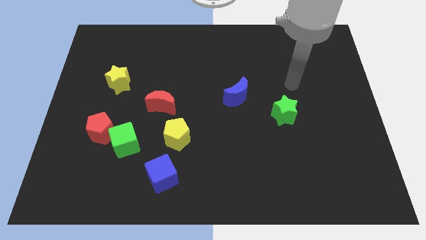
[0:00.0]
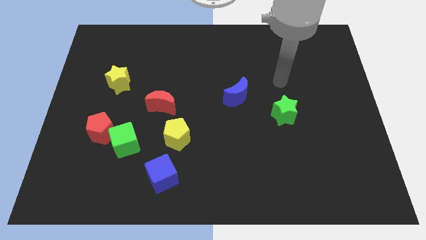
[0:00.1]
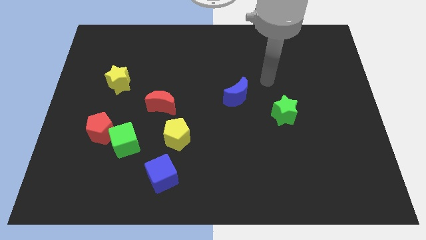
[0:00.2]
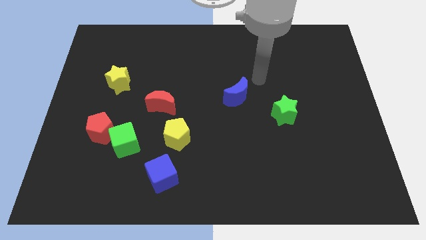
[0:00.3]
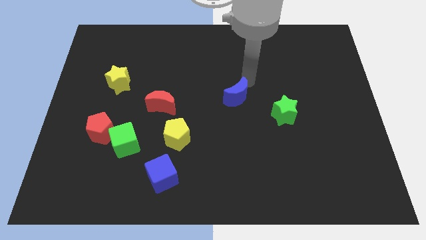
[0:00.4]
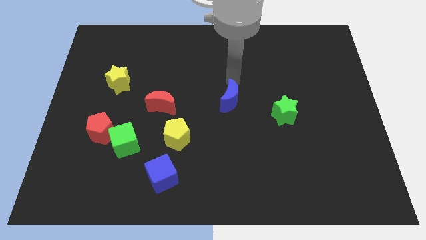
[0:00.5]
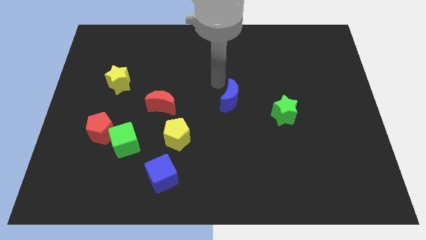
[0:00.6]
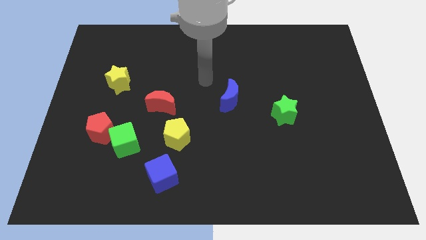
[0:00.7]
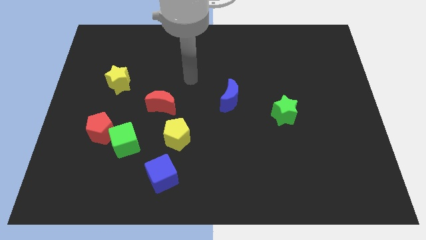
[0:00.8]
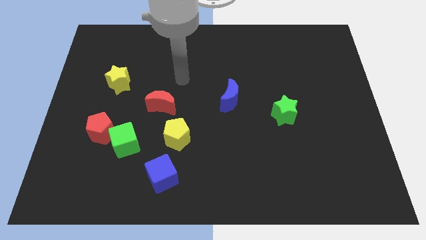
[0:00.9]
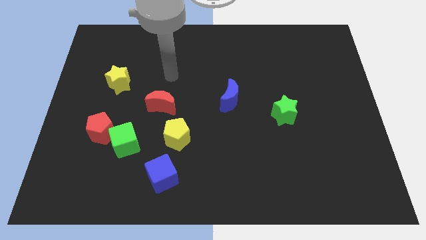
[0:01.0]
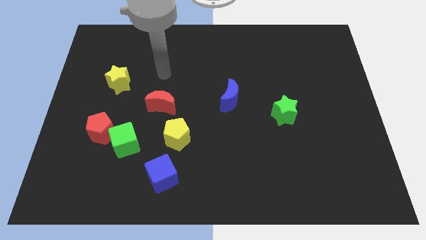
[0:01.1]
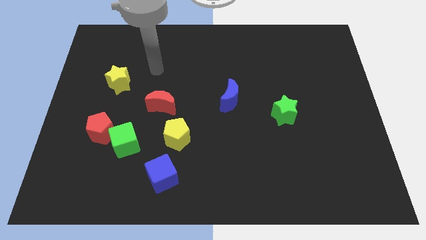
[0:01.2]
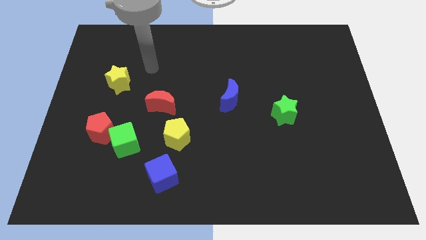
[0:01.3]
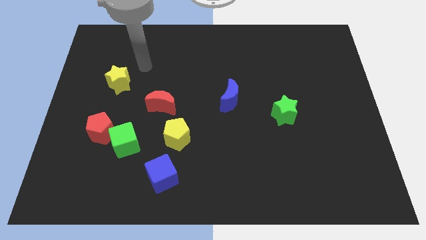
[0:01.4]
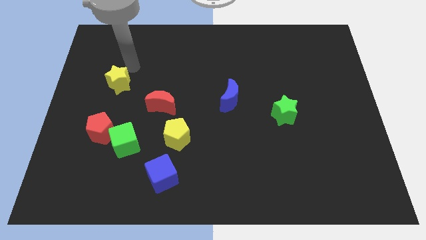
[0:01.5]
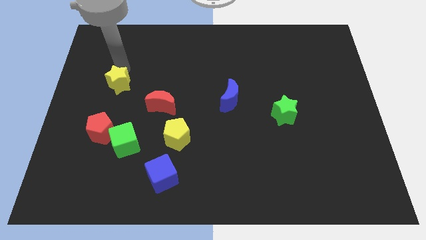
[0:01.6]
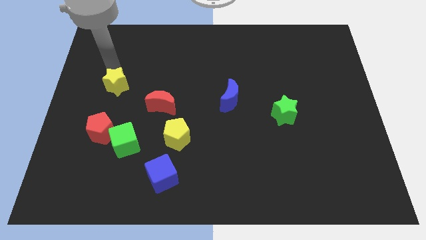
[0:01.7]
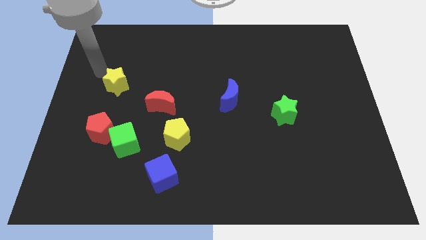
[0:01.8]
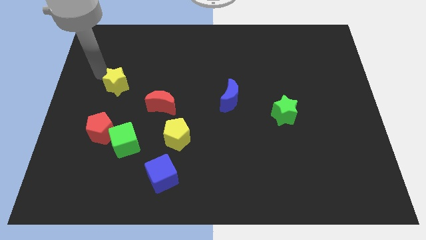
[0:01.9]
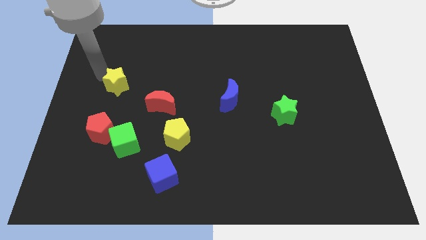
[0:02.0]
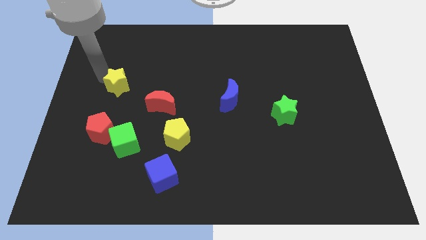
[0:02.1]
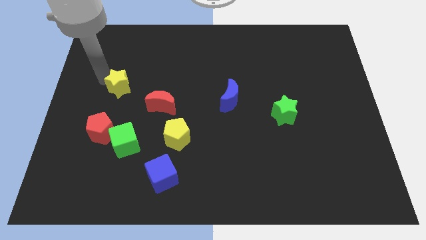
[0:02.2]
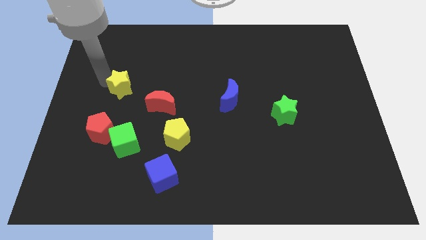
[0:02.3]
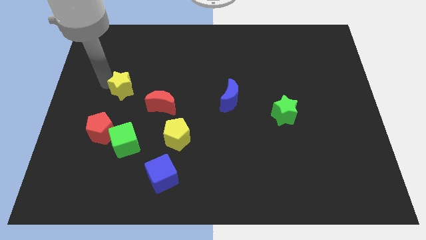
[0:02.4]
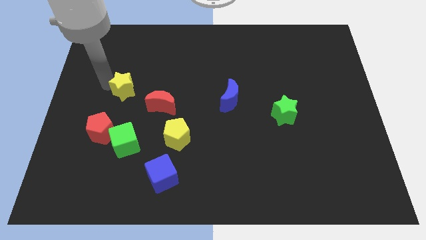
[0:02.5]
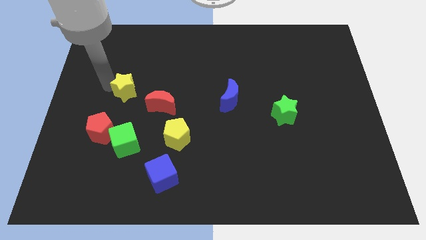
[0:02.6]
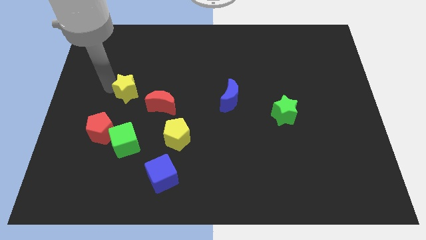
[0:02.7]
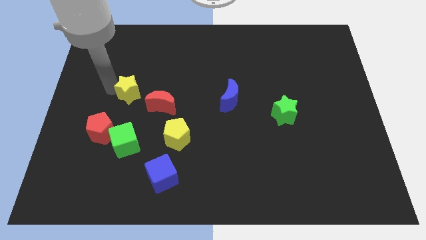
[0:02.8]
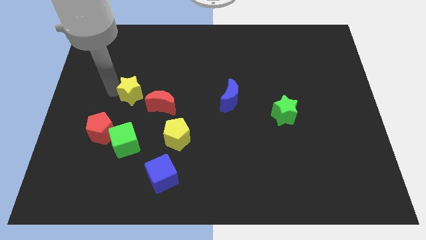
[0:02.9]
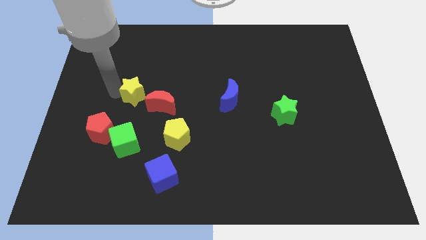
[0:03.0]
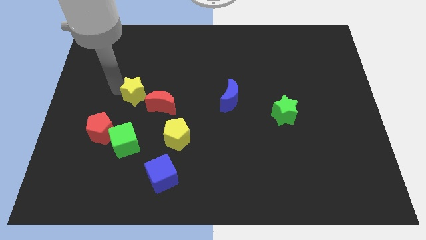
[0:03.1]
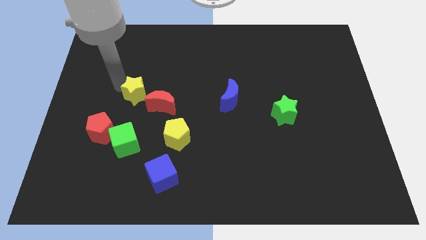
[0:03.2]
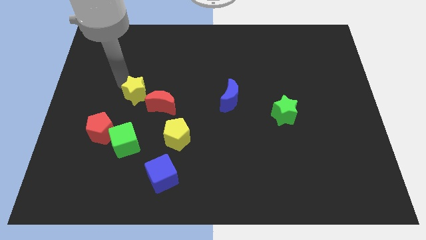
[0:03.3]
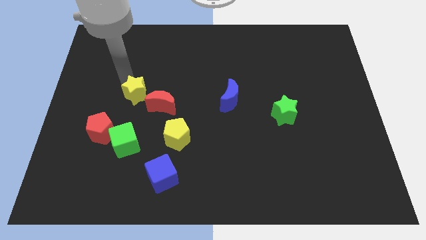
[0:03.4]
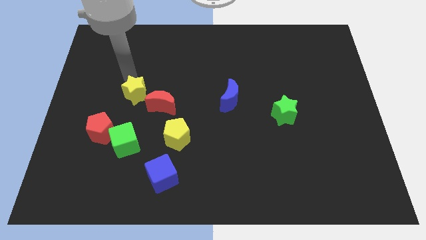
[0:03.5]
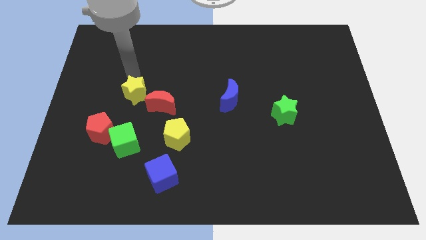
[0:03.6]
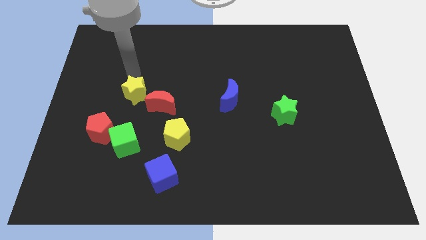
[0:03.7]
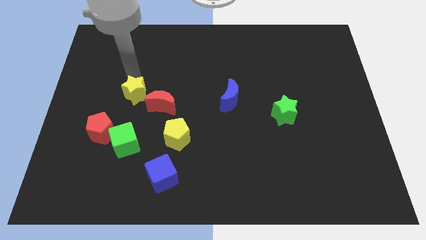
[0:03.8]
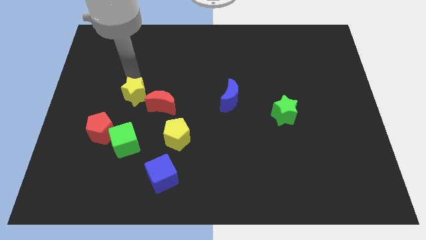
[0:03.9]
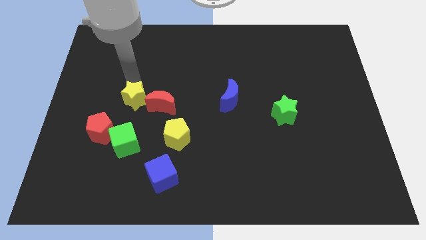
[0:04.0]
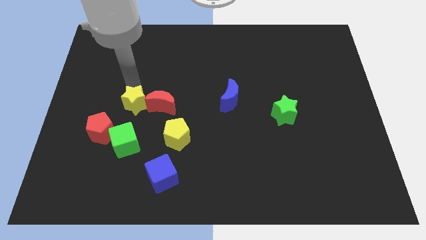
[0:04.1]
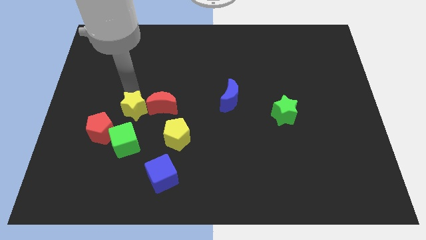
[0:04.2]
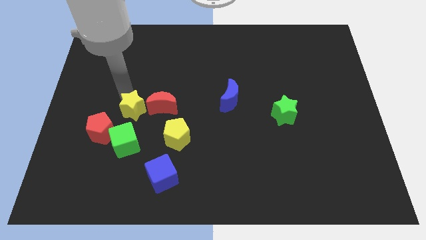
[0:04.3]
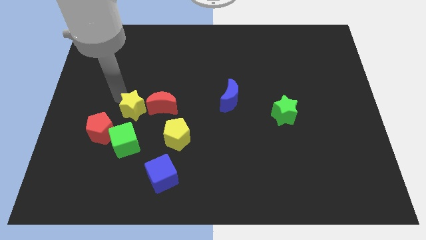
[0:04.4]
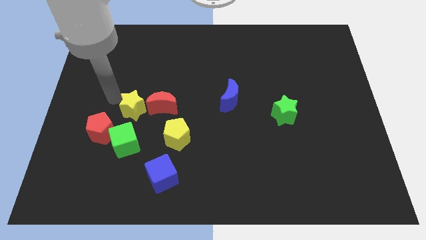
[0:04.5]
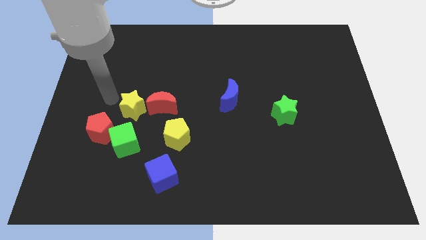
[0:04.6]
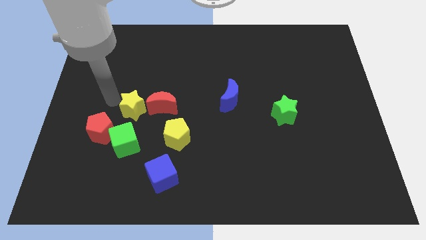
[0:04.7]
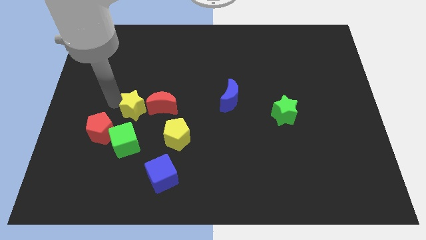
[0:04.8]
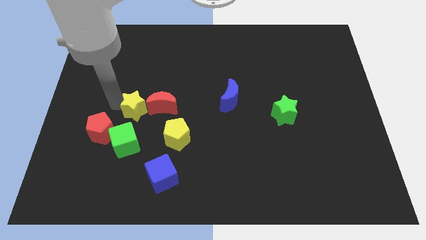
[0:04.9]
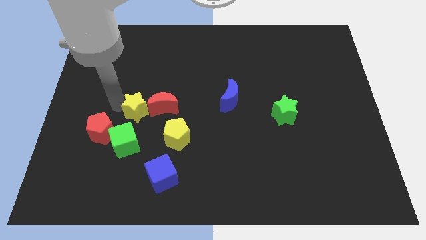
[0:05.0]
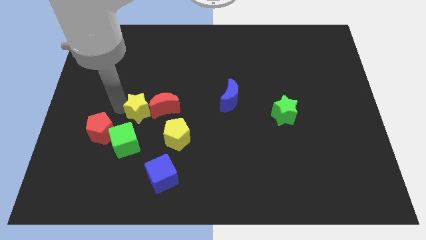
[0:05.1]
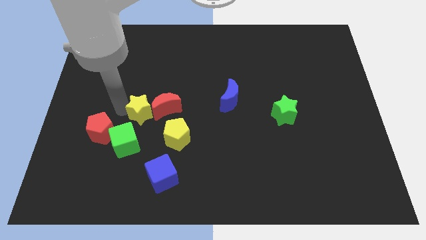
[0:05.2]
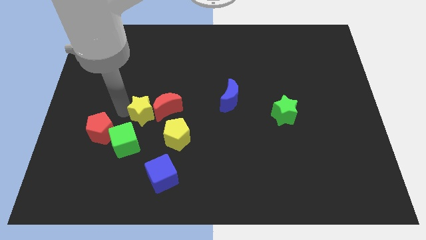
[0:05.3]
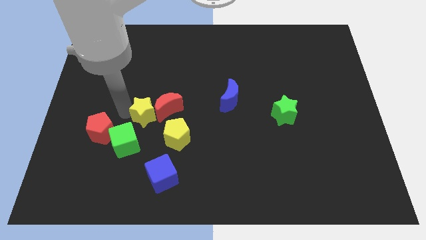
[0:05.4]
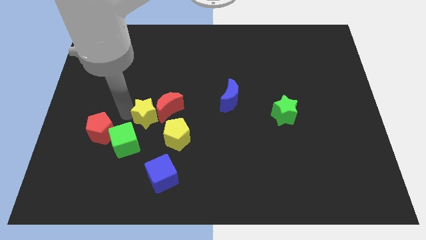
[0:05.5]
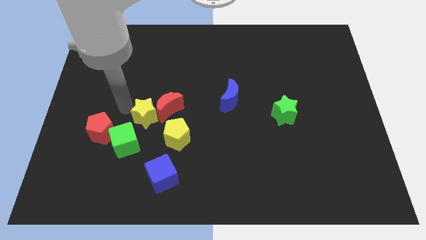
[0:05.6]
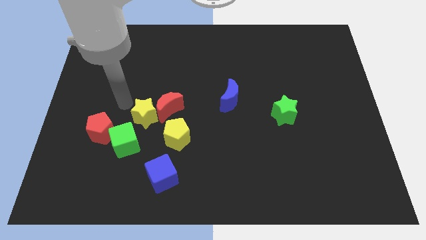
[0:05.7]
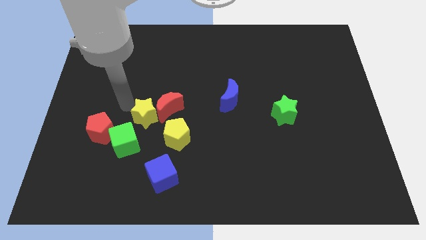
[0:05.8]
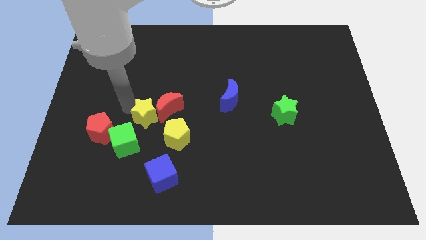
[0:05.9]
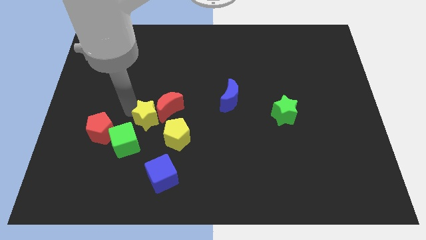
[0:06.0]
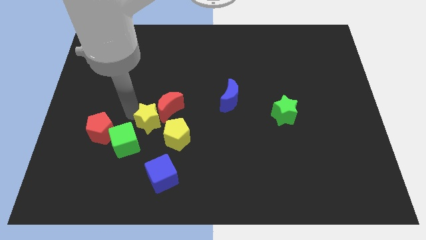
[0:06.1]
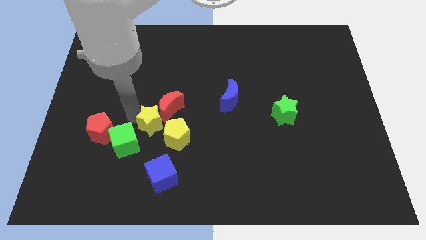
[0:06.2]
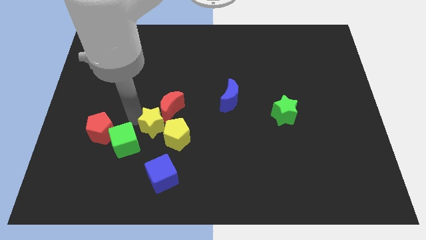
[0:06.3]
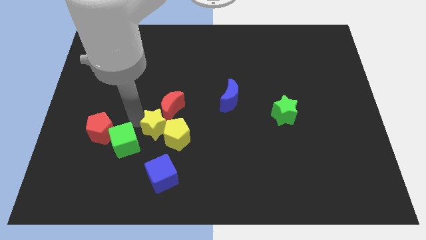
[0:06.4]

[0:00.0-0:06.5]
push the yellow star towards the yellow pentagon

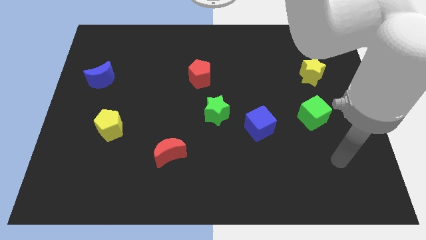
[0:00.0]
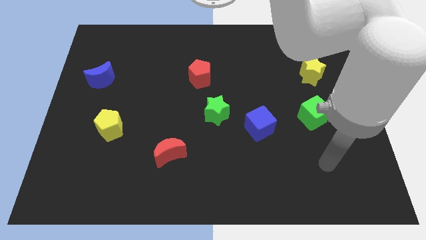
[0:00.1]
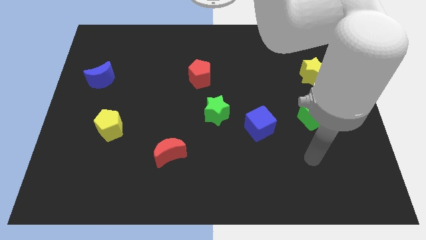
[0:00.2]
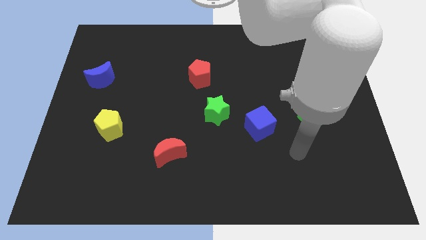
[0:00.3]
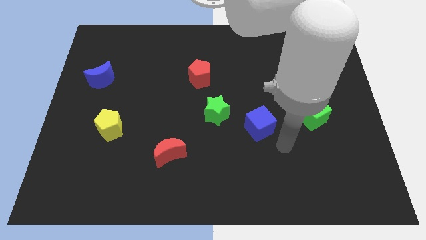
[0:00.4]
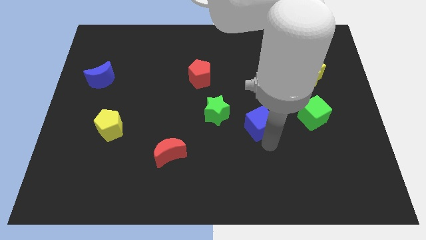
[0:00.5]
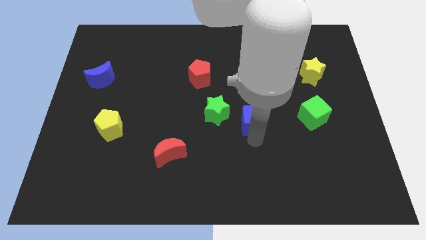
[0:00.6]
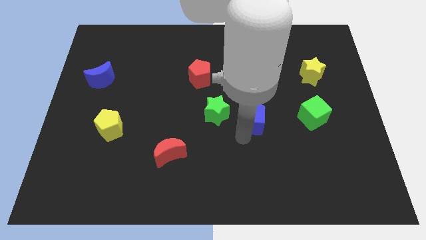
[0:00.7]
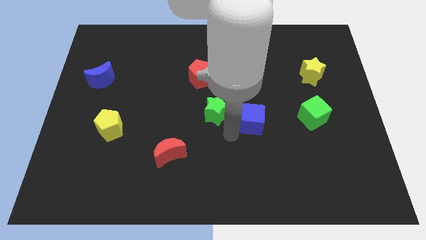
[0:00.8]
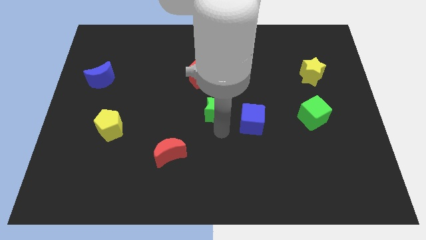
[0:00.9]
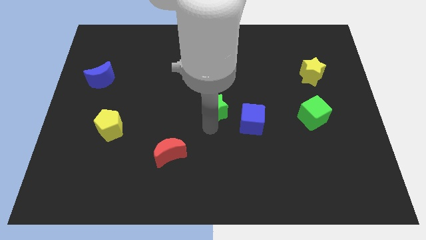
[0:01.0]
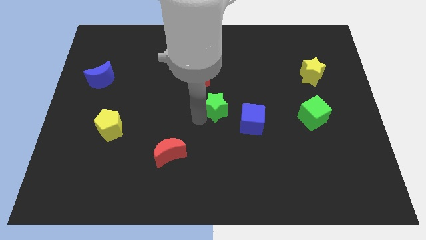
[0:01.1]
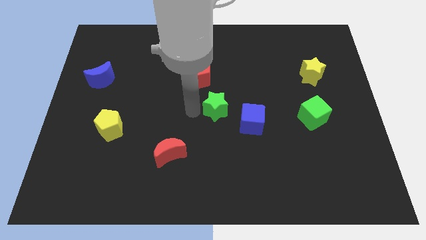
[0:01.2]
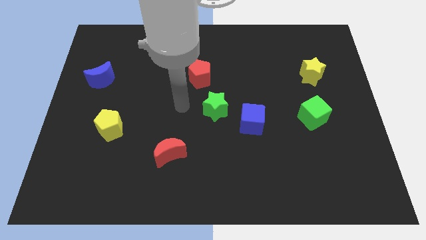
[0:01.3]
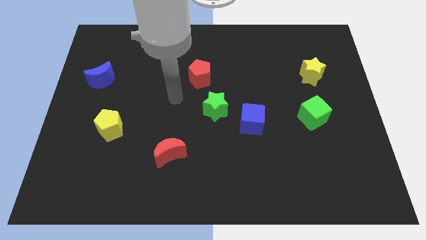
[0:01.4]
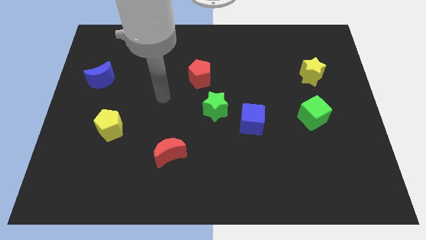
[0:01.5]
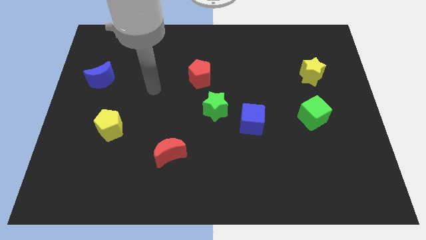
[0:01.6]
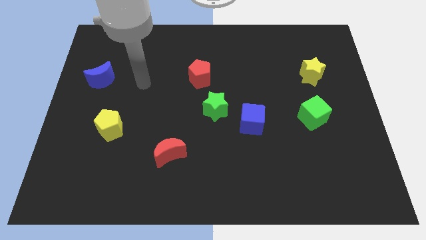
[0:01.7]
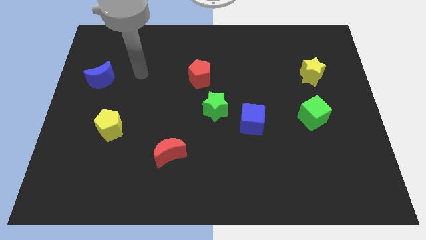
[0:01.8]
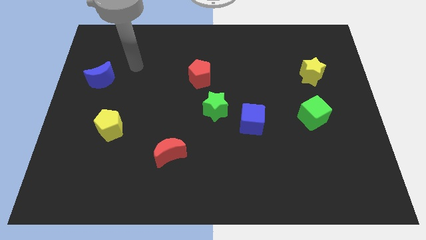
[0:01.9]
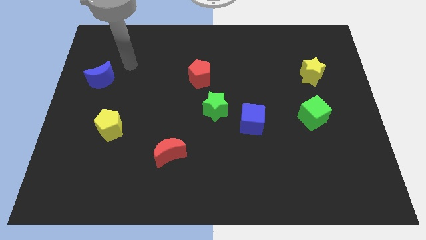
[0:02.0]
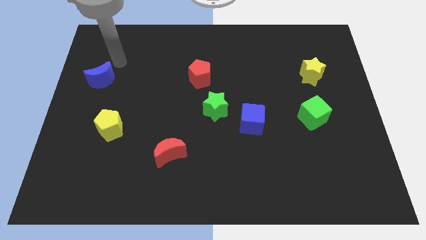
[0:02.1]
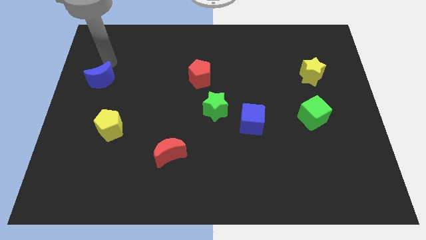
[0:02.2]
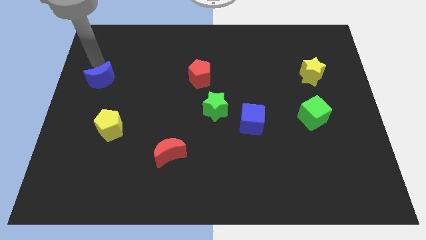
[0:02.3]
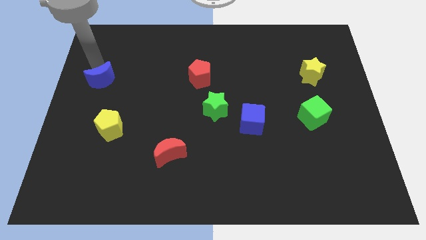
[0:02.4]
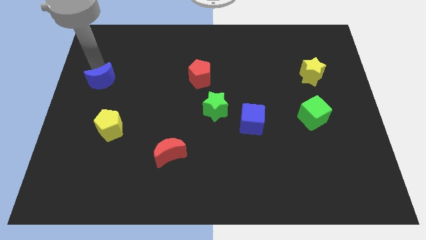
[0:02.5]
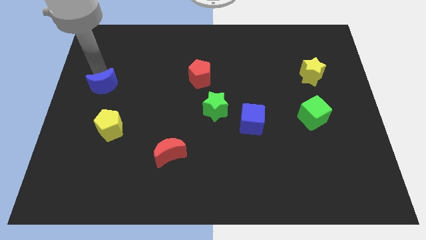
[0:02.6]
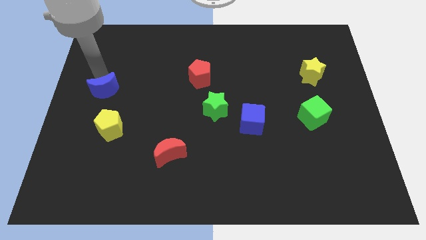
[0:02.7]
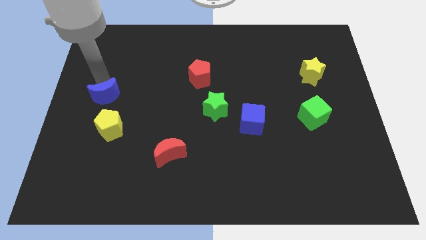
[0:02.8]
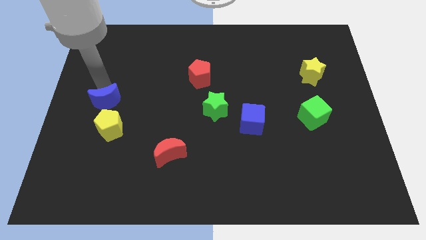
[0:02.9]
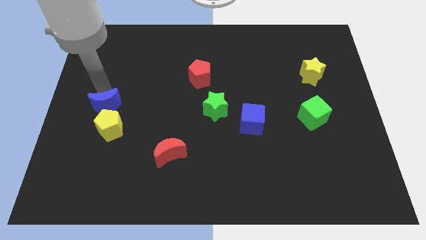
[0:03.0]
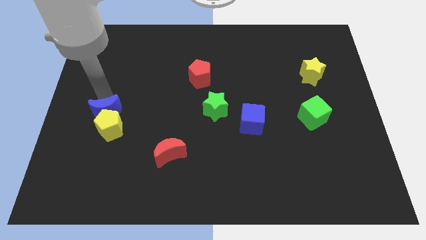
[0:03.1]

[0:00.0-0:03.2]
slide the blue moon close to the yellow pentagon
